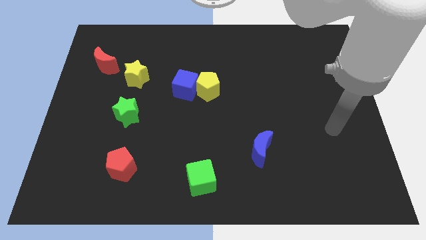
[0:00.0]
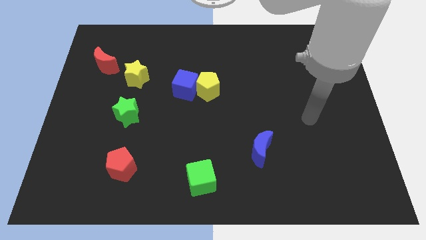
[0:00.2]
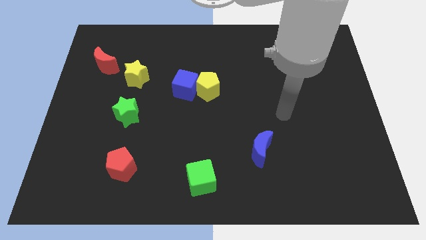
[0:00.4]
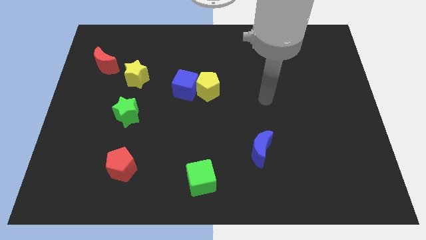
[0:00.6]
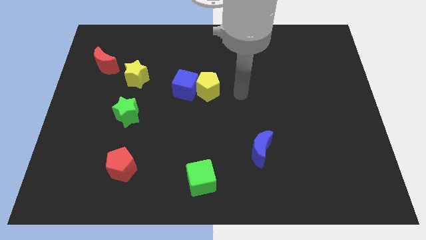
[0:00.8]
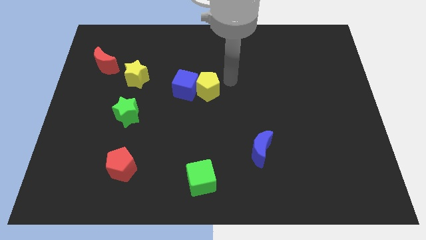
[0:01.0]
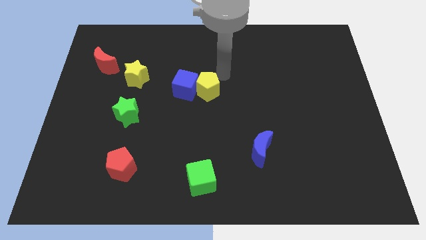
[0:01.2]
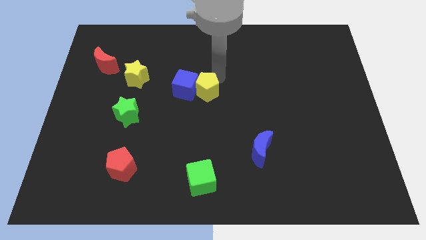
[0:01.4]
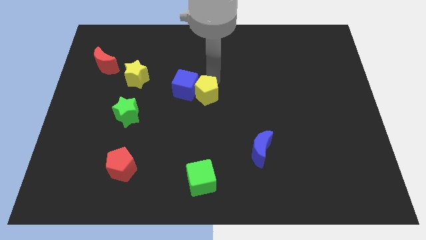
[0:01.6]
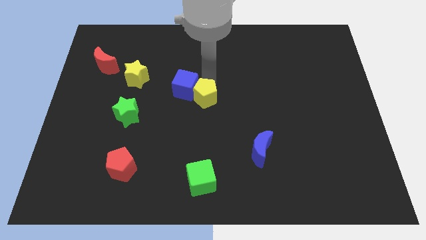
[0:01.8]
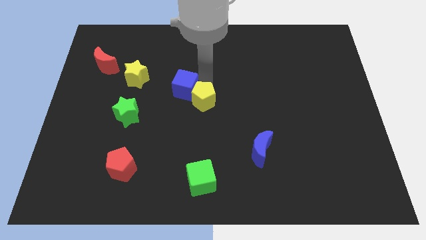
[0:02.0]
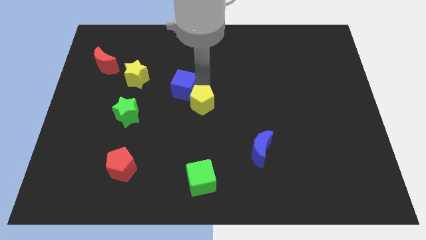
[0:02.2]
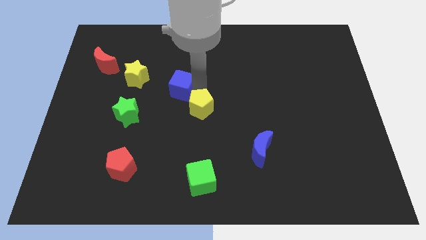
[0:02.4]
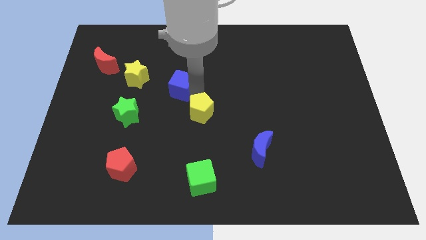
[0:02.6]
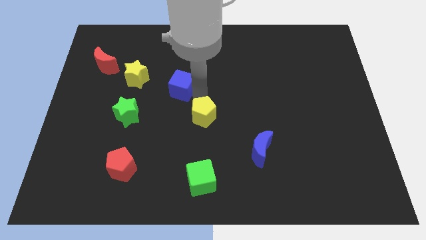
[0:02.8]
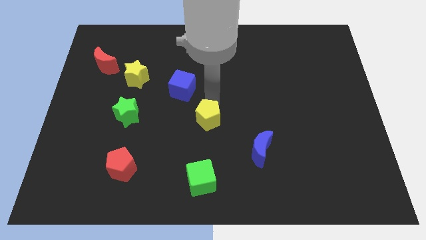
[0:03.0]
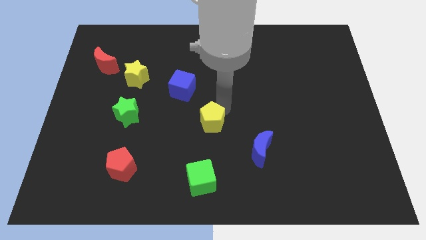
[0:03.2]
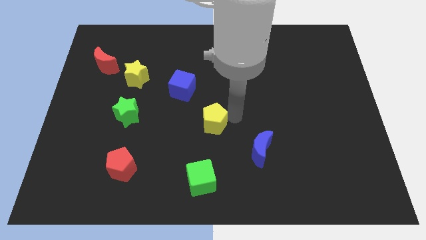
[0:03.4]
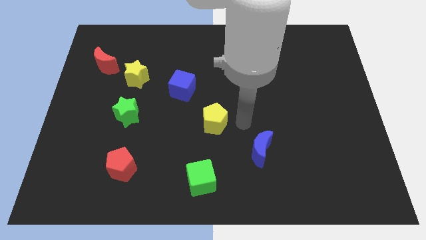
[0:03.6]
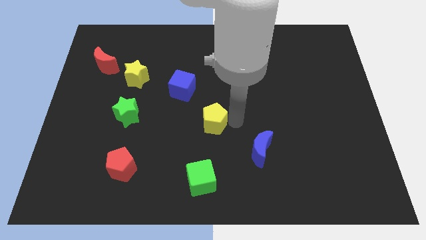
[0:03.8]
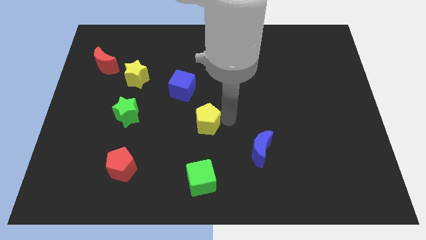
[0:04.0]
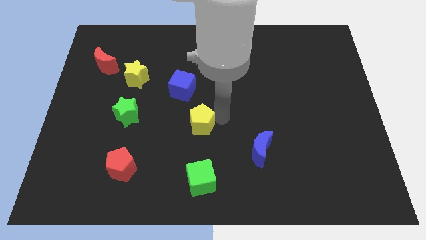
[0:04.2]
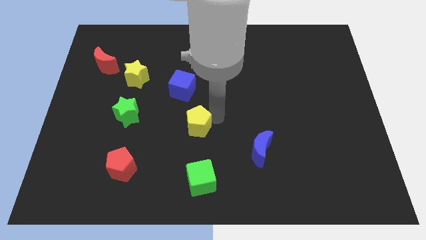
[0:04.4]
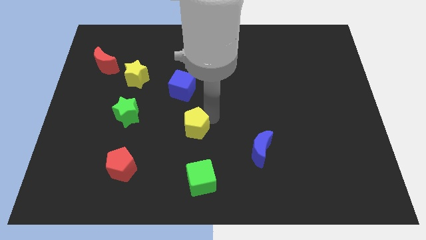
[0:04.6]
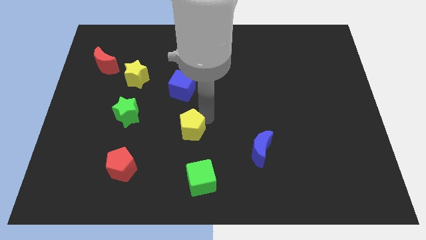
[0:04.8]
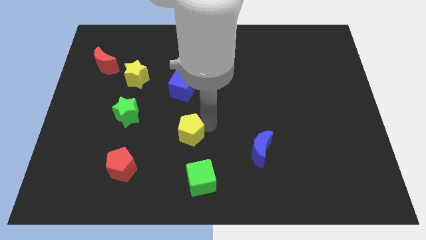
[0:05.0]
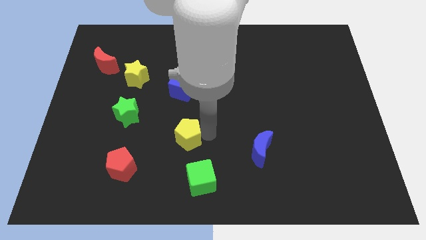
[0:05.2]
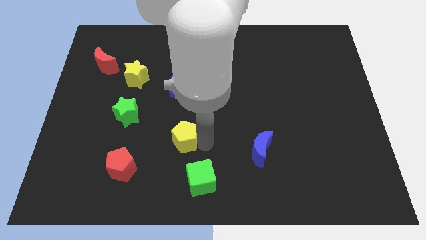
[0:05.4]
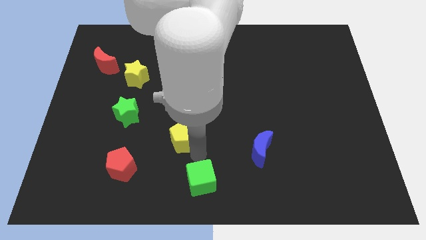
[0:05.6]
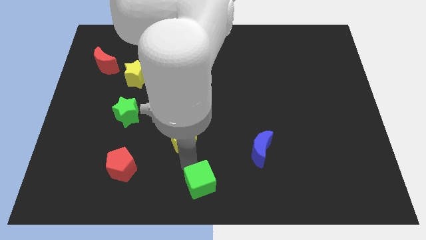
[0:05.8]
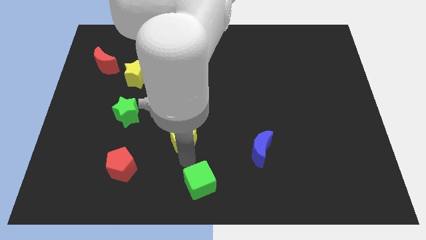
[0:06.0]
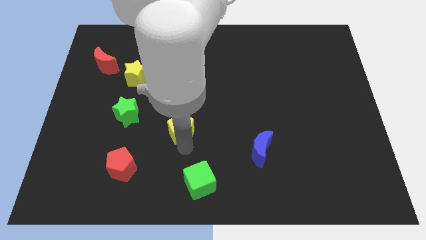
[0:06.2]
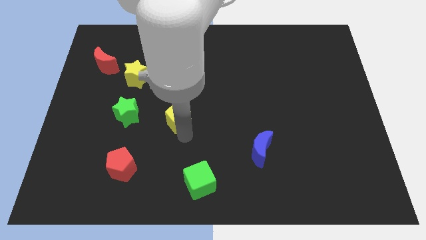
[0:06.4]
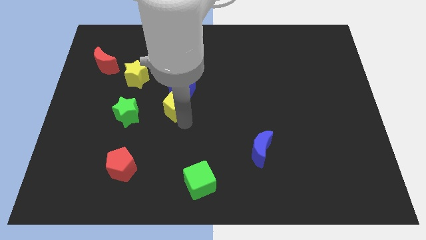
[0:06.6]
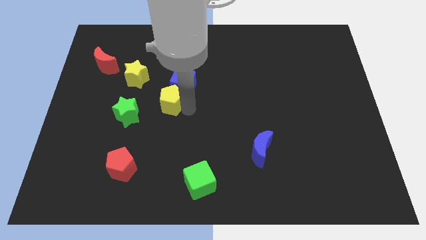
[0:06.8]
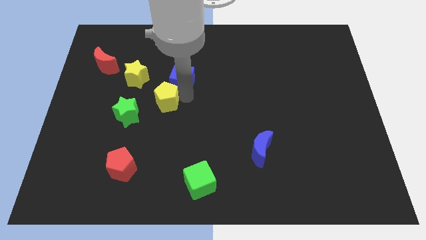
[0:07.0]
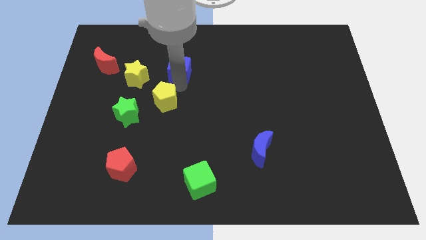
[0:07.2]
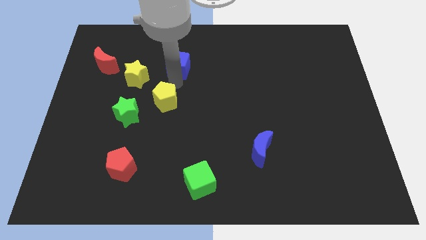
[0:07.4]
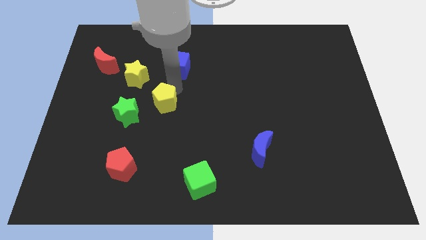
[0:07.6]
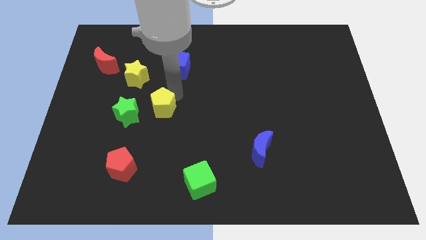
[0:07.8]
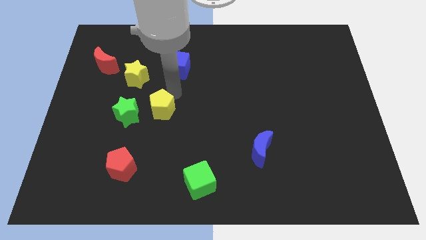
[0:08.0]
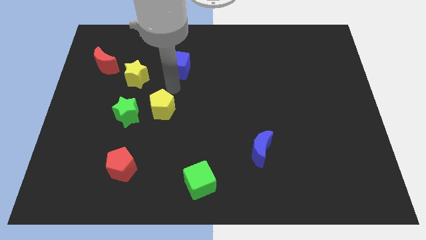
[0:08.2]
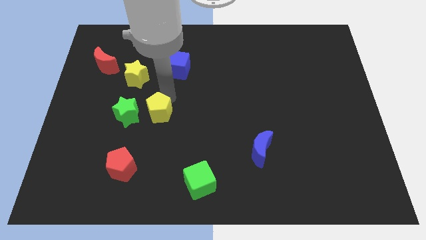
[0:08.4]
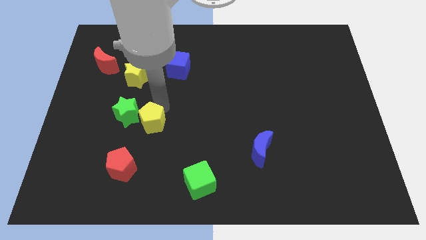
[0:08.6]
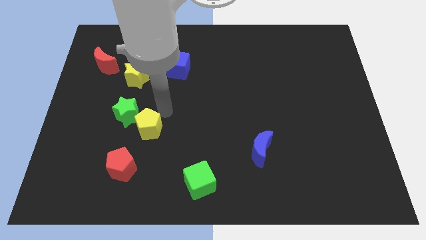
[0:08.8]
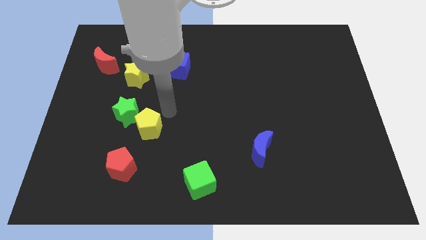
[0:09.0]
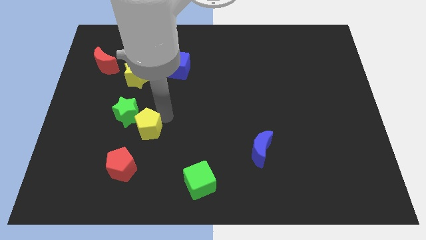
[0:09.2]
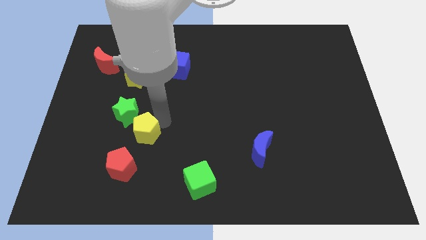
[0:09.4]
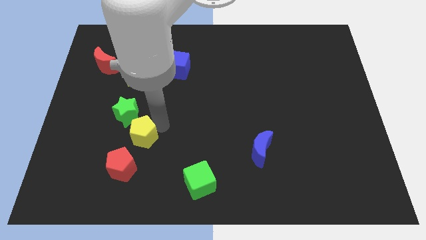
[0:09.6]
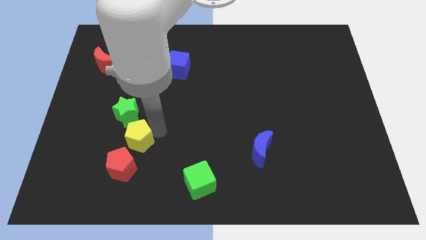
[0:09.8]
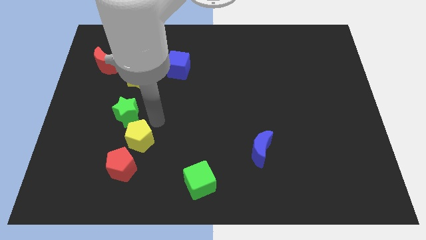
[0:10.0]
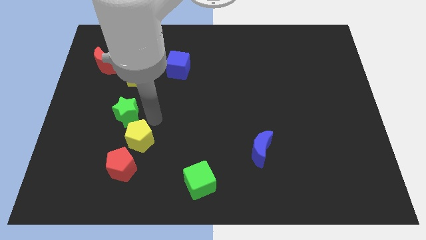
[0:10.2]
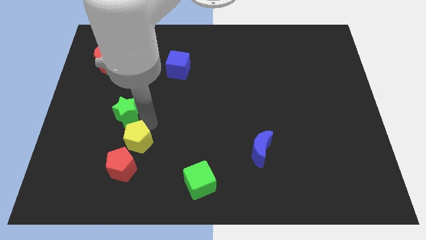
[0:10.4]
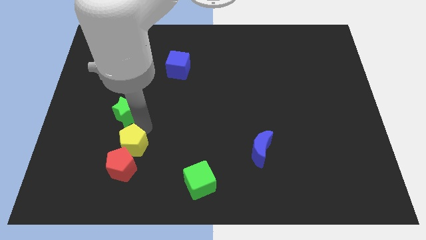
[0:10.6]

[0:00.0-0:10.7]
slide the yellow pentagon next to the red pentagon

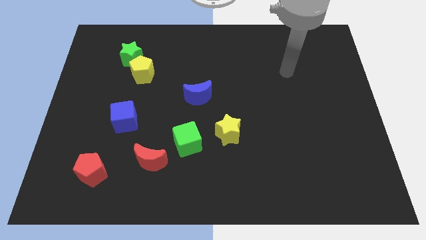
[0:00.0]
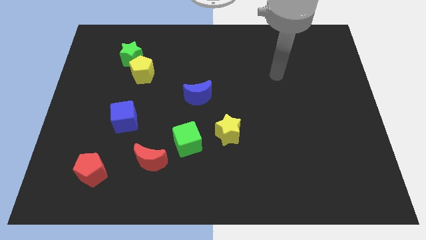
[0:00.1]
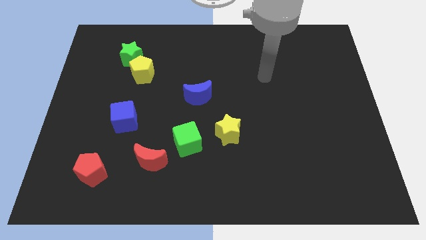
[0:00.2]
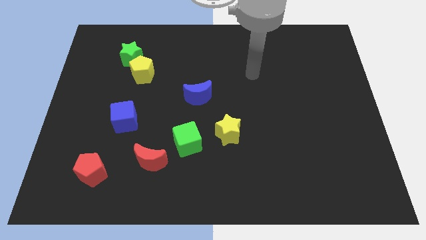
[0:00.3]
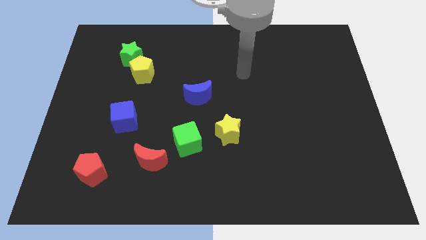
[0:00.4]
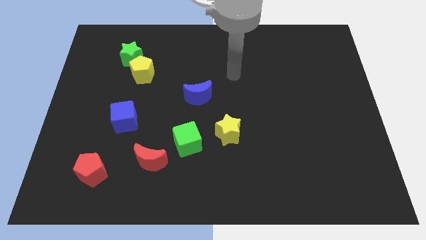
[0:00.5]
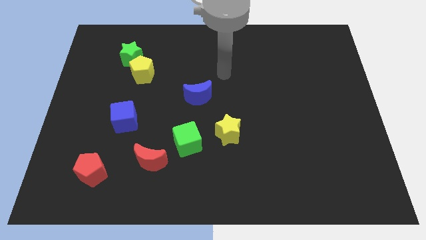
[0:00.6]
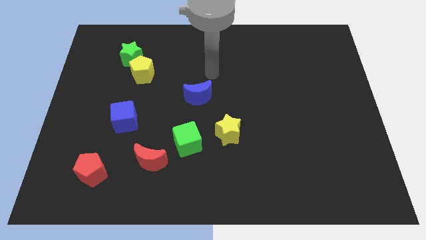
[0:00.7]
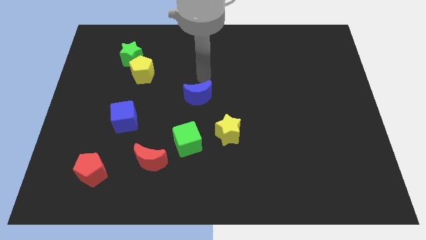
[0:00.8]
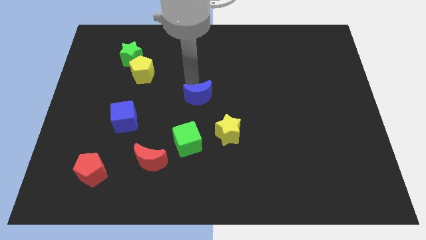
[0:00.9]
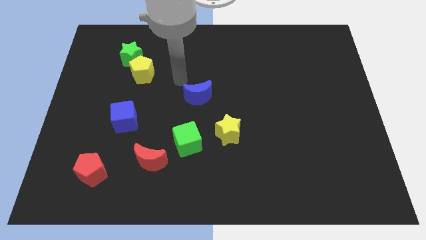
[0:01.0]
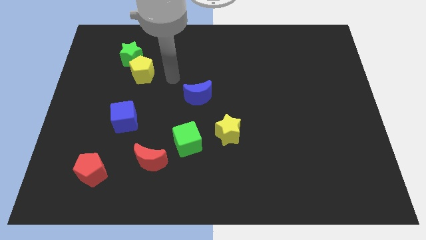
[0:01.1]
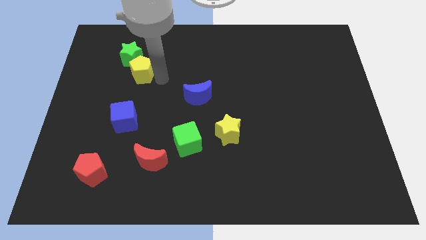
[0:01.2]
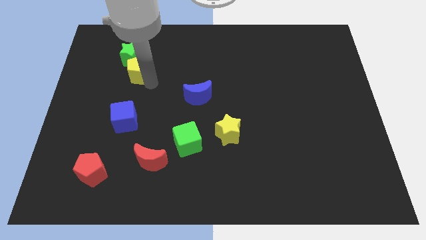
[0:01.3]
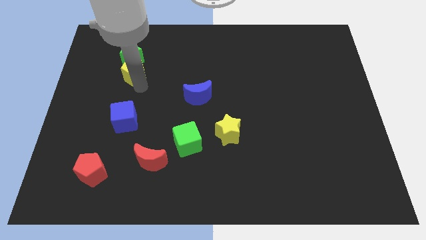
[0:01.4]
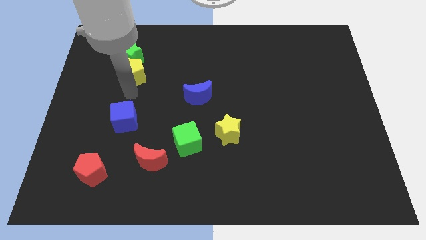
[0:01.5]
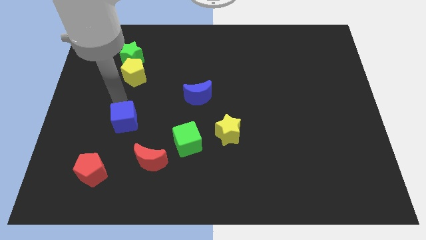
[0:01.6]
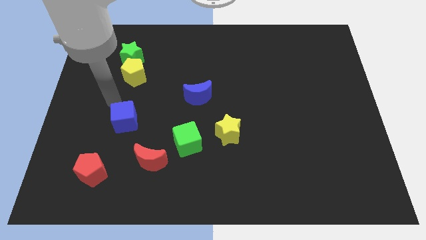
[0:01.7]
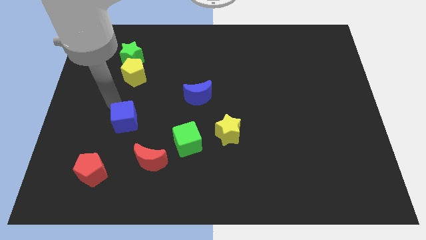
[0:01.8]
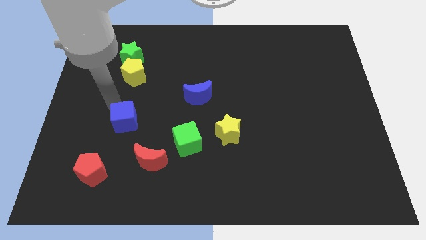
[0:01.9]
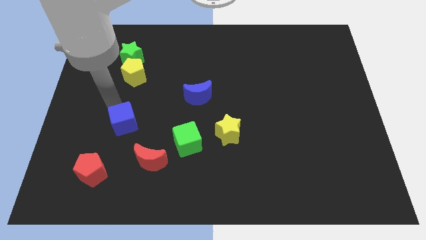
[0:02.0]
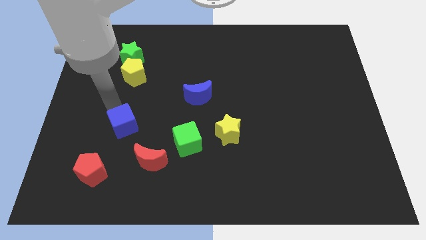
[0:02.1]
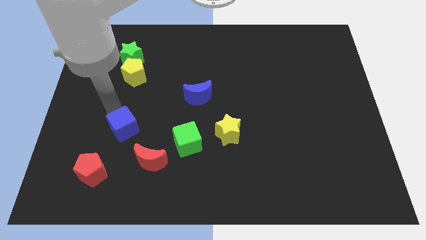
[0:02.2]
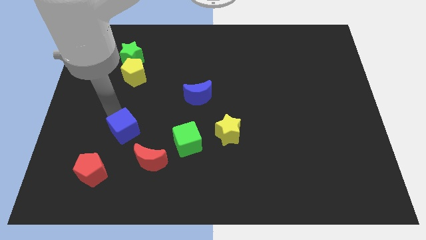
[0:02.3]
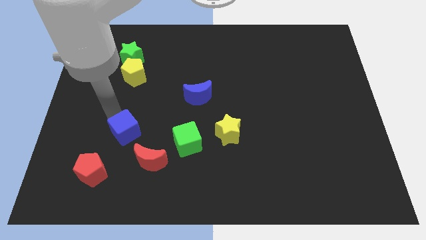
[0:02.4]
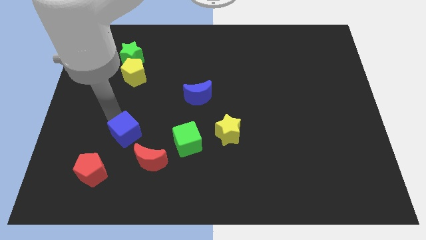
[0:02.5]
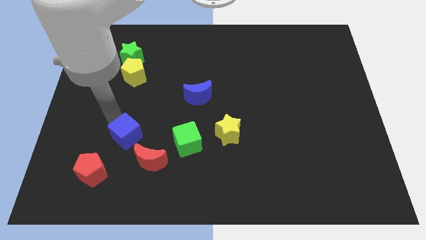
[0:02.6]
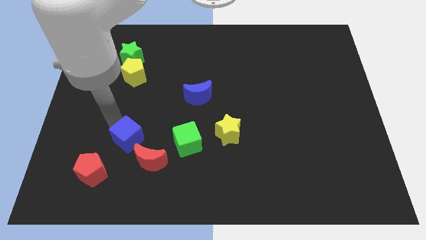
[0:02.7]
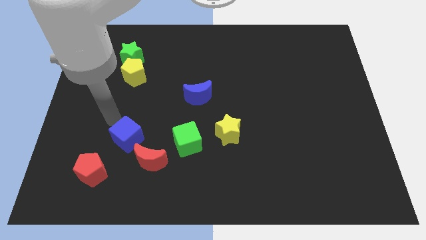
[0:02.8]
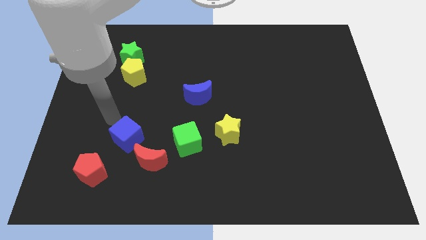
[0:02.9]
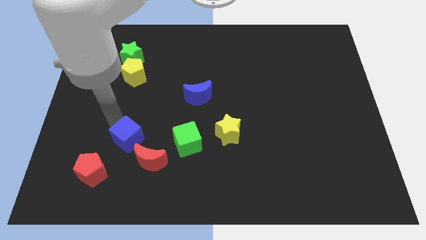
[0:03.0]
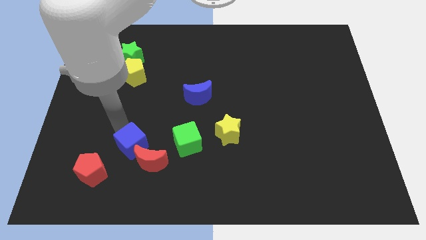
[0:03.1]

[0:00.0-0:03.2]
put the blue cube close to the red moon
